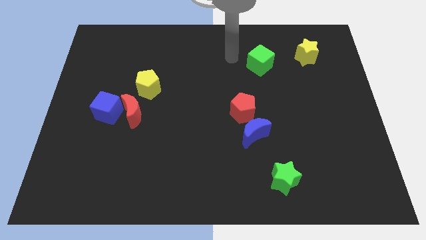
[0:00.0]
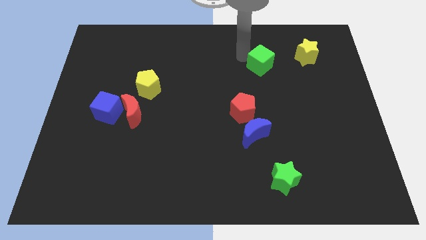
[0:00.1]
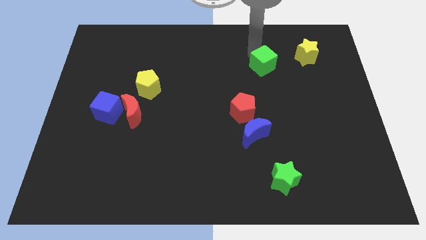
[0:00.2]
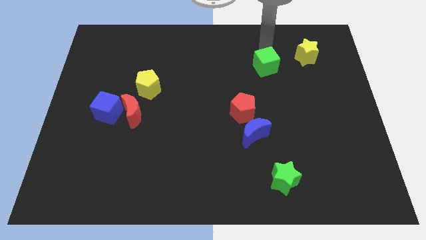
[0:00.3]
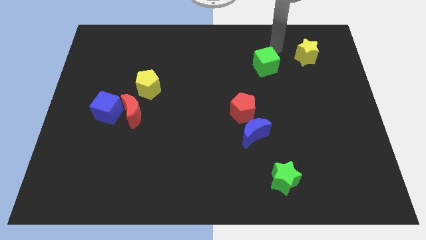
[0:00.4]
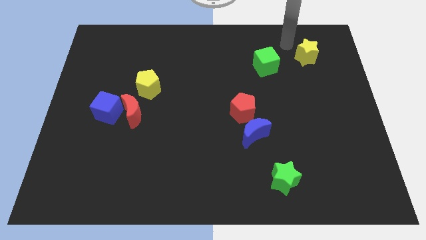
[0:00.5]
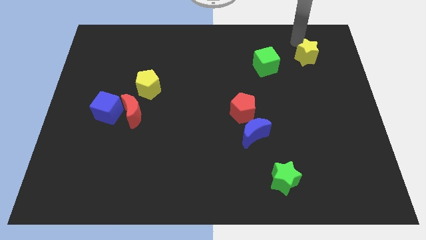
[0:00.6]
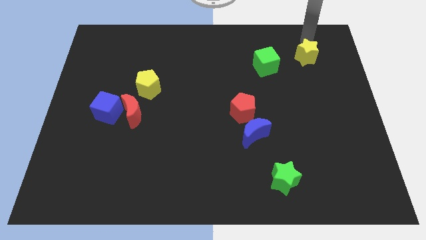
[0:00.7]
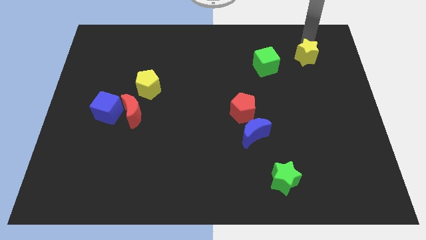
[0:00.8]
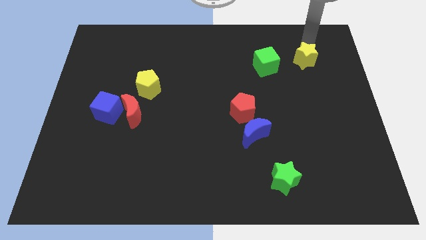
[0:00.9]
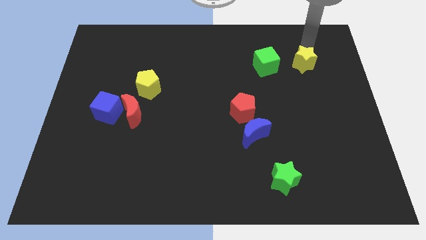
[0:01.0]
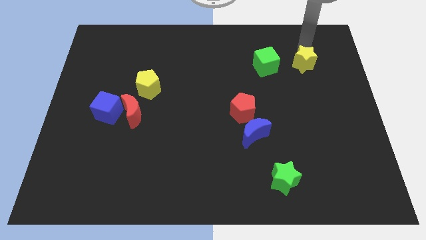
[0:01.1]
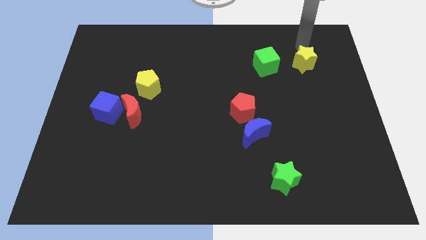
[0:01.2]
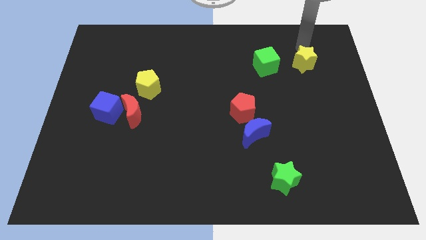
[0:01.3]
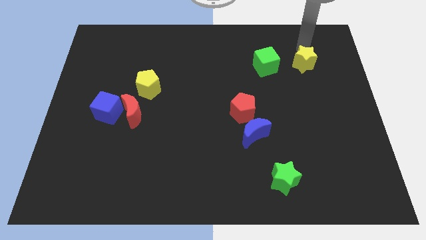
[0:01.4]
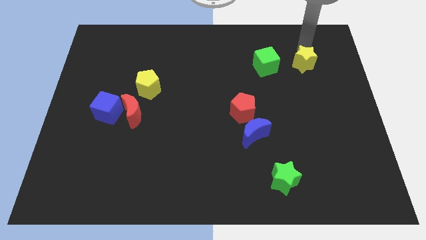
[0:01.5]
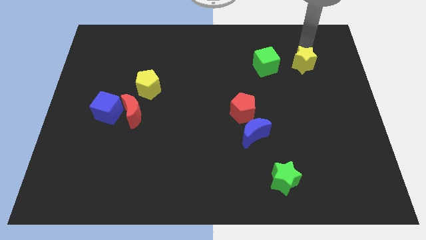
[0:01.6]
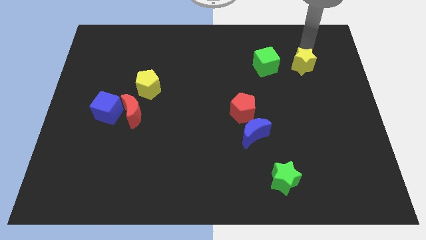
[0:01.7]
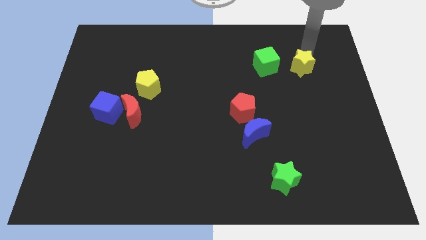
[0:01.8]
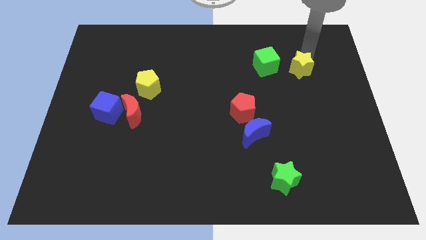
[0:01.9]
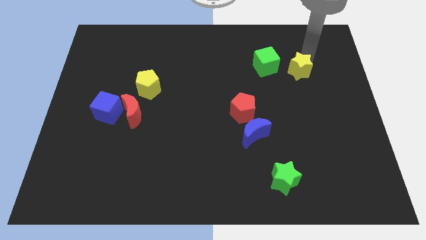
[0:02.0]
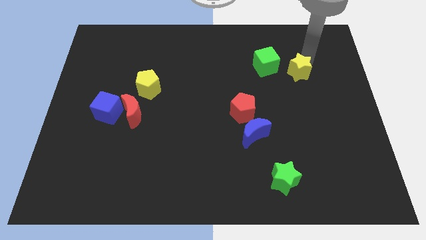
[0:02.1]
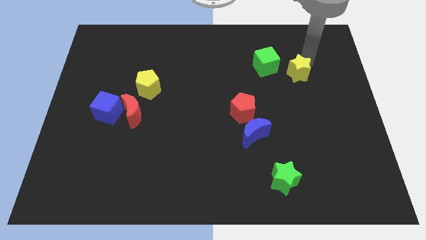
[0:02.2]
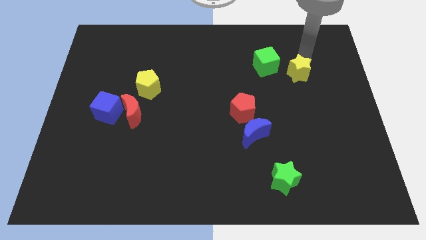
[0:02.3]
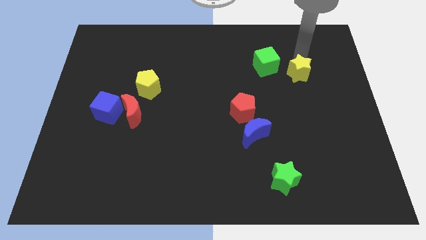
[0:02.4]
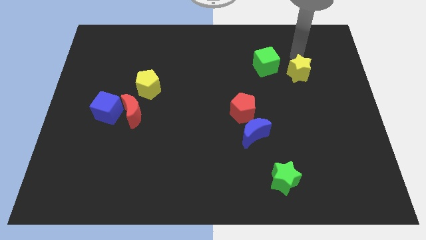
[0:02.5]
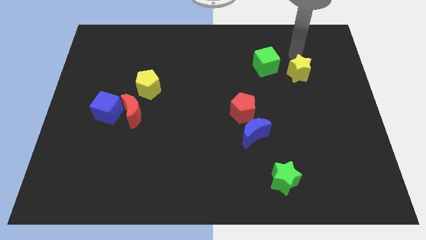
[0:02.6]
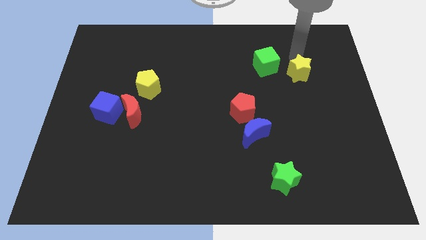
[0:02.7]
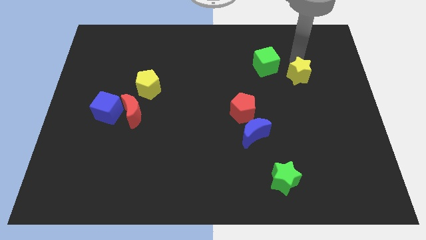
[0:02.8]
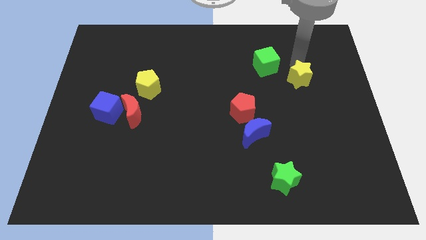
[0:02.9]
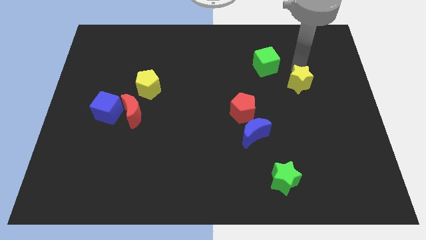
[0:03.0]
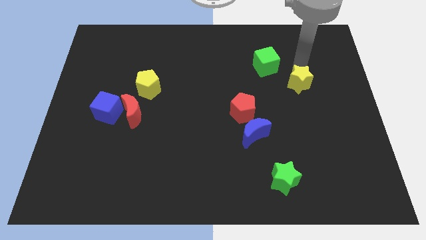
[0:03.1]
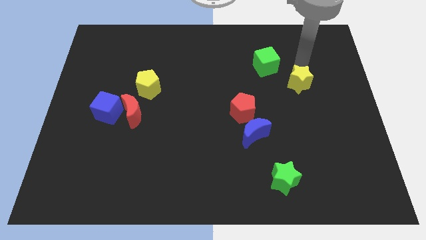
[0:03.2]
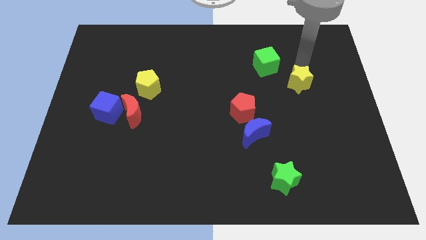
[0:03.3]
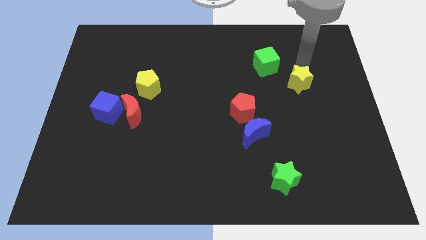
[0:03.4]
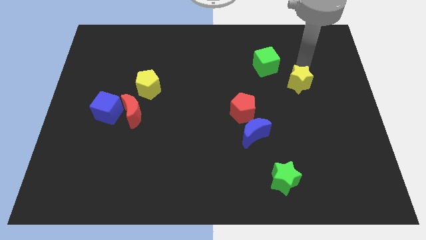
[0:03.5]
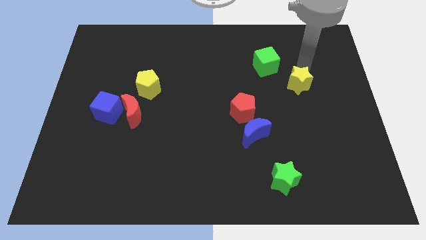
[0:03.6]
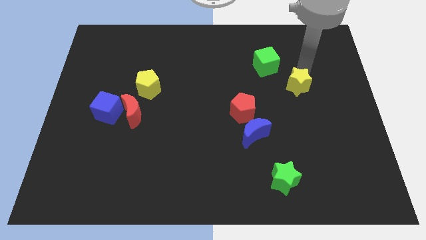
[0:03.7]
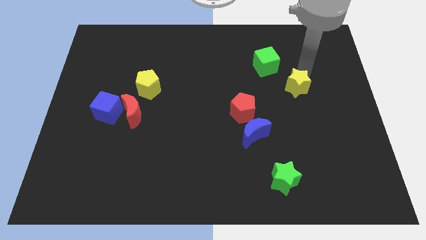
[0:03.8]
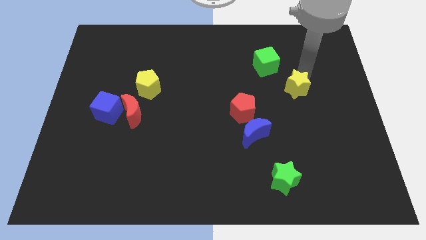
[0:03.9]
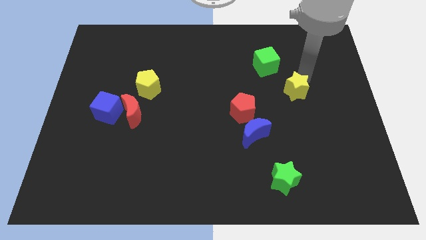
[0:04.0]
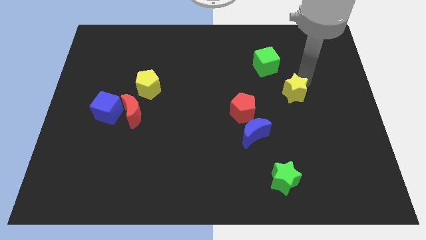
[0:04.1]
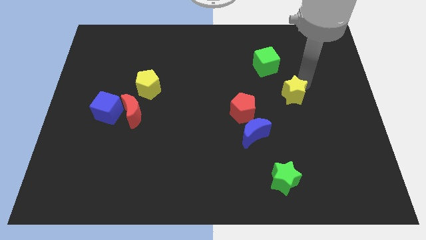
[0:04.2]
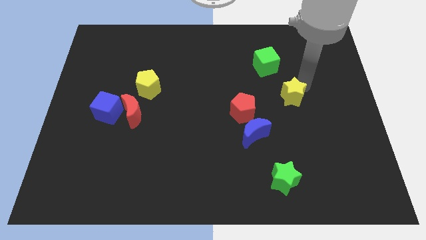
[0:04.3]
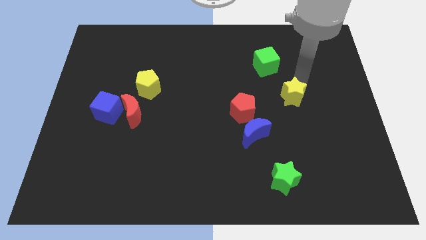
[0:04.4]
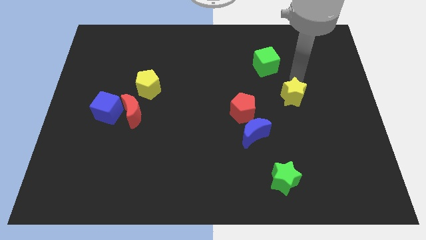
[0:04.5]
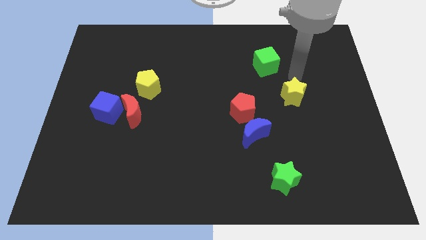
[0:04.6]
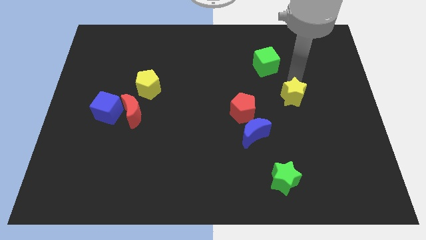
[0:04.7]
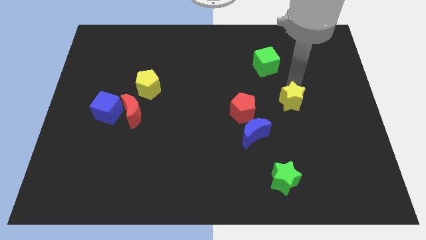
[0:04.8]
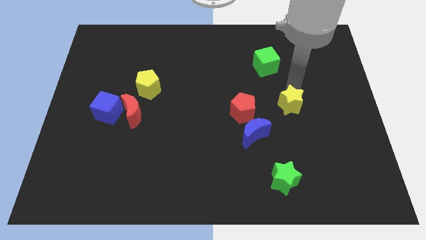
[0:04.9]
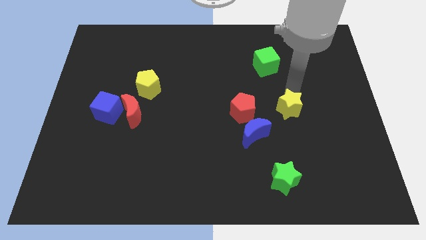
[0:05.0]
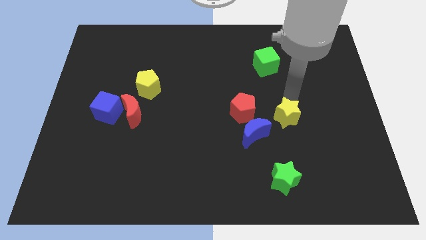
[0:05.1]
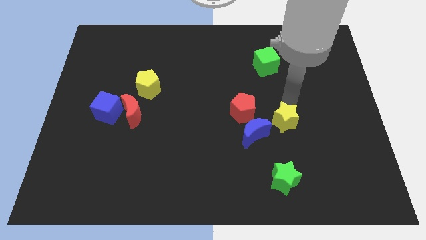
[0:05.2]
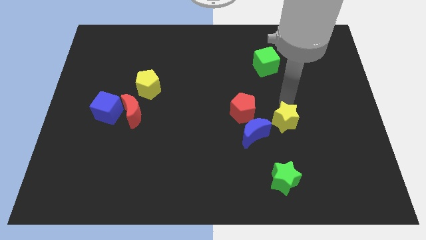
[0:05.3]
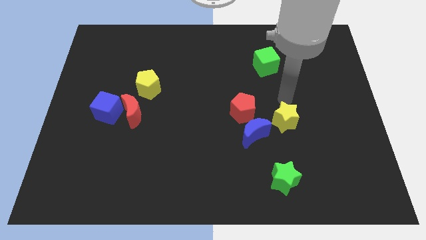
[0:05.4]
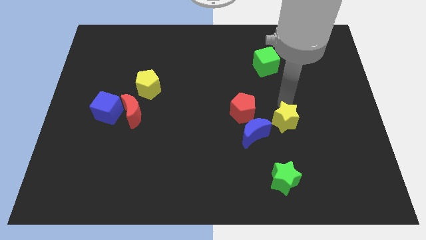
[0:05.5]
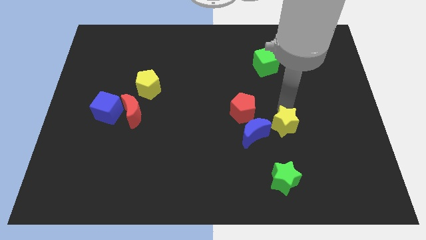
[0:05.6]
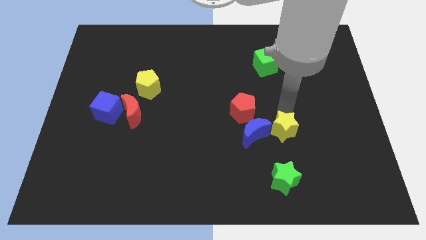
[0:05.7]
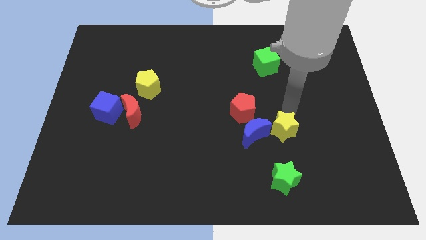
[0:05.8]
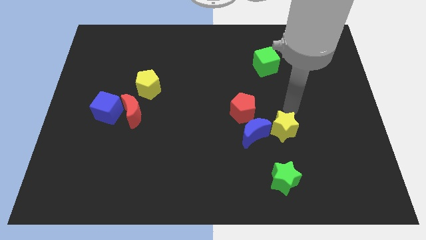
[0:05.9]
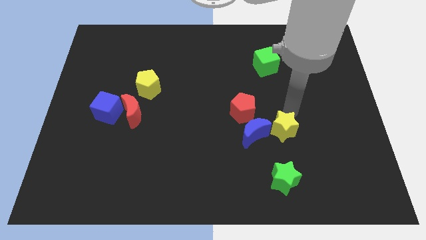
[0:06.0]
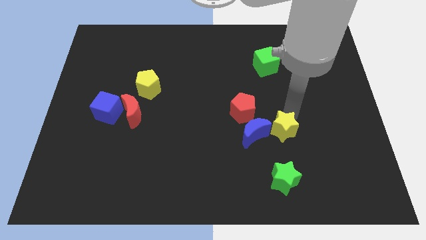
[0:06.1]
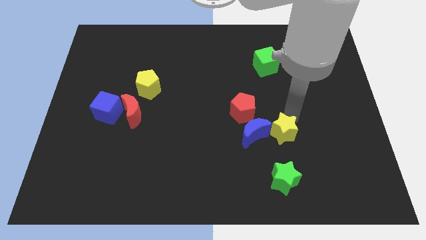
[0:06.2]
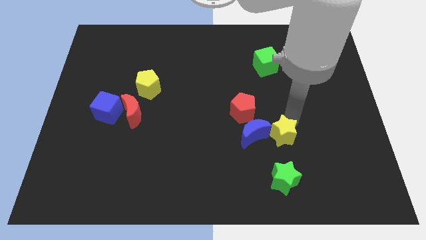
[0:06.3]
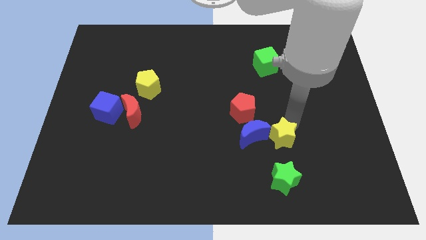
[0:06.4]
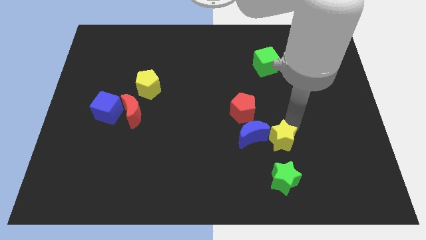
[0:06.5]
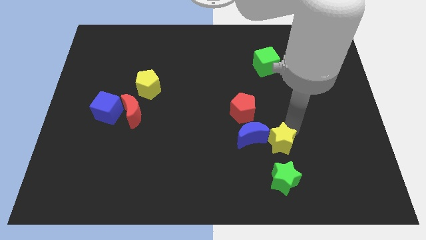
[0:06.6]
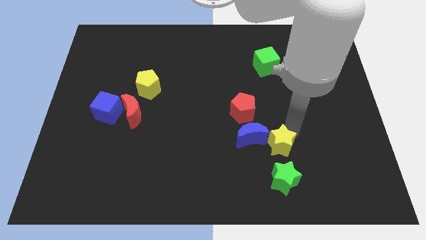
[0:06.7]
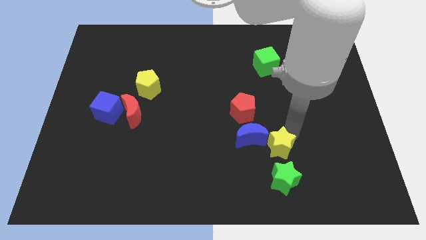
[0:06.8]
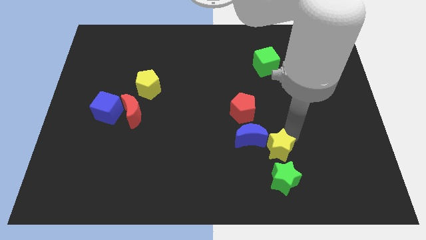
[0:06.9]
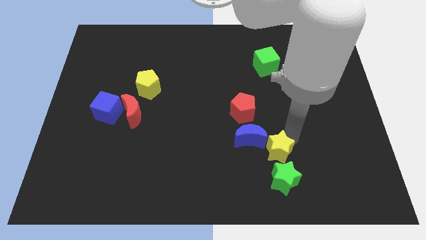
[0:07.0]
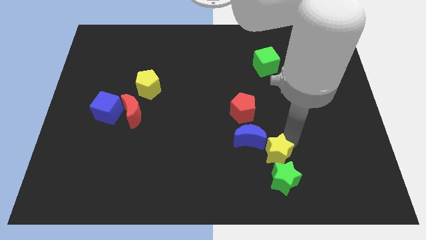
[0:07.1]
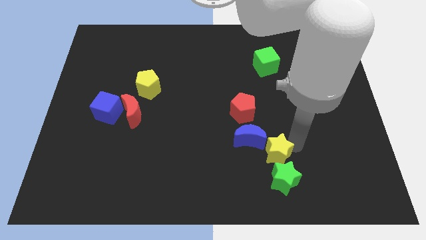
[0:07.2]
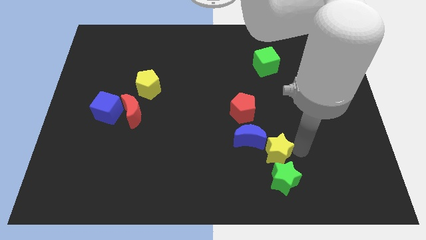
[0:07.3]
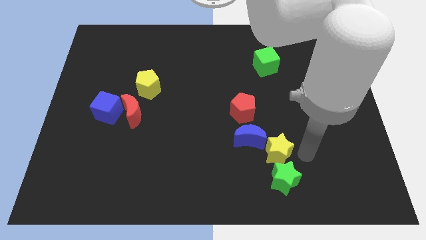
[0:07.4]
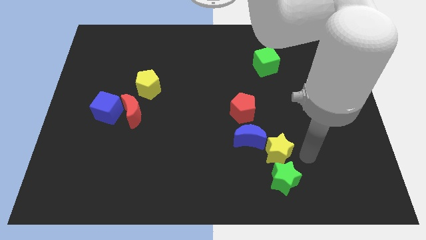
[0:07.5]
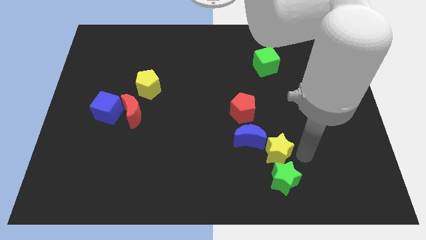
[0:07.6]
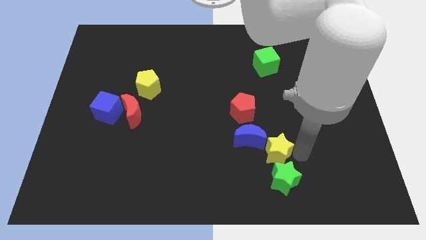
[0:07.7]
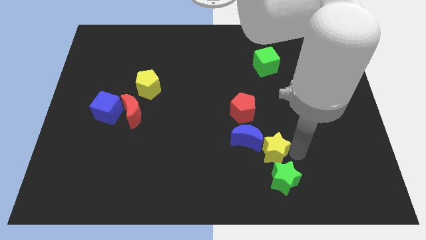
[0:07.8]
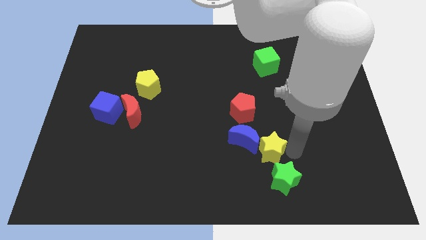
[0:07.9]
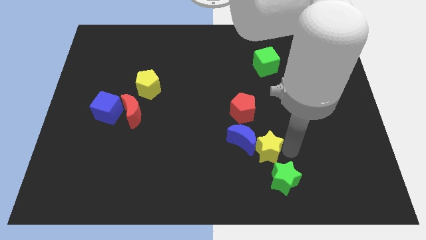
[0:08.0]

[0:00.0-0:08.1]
put the yellow star to the bottom side of the red pentagon
